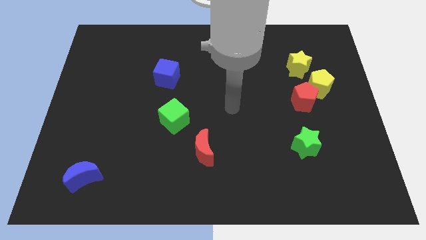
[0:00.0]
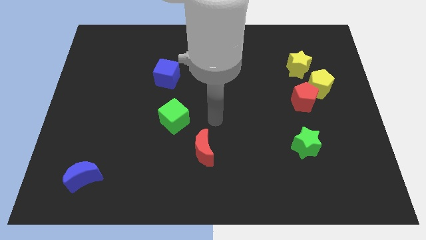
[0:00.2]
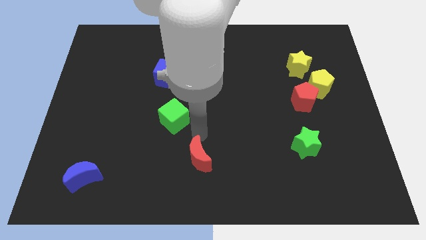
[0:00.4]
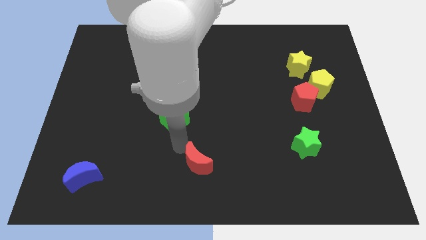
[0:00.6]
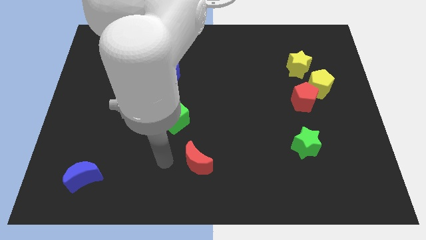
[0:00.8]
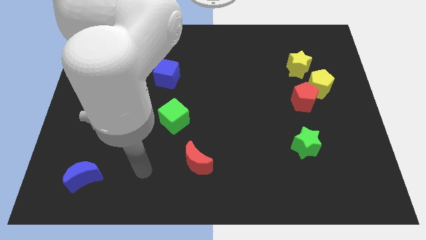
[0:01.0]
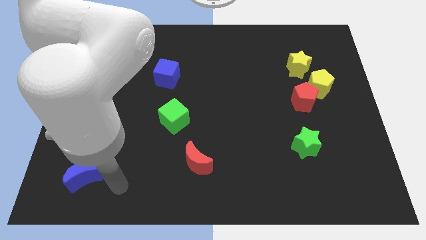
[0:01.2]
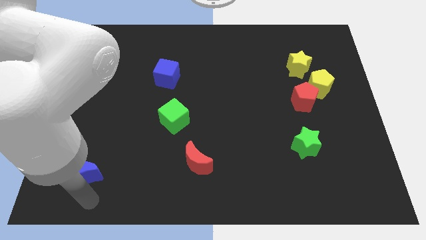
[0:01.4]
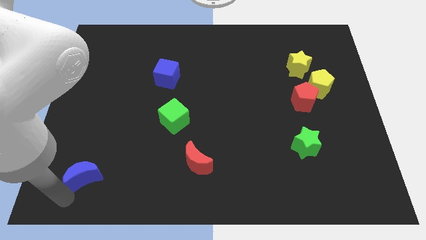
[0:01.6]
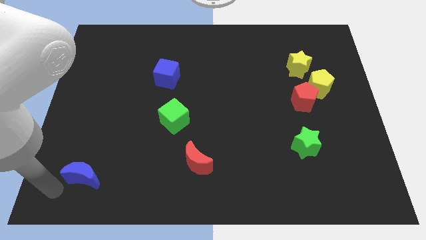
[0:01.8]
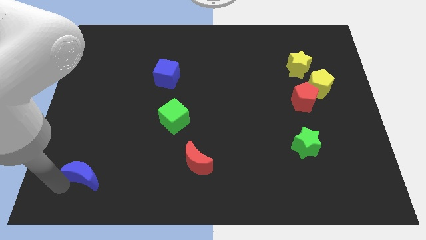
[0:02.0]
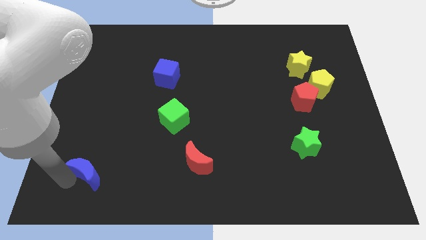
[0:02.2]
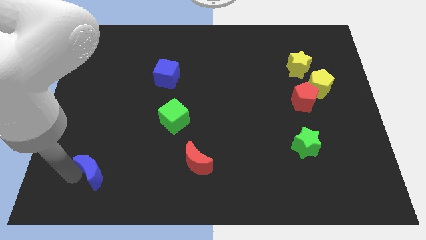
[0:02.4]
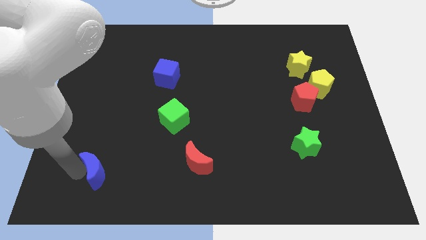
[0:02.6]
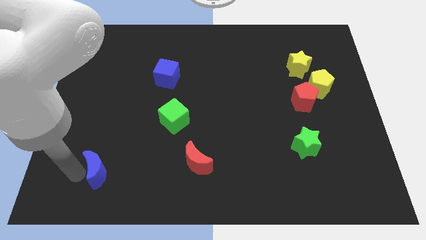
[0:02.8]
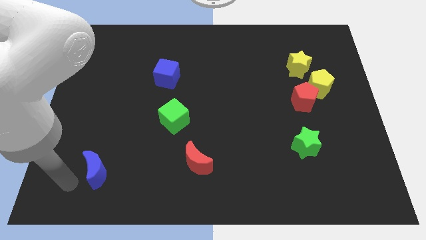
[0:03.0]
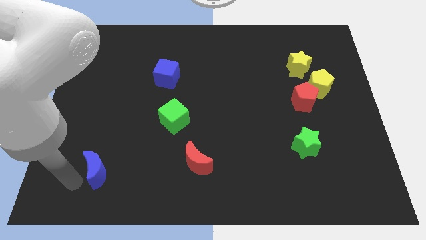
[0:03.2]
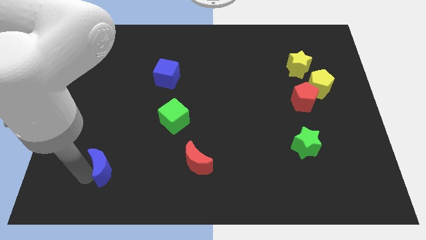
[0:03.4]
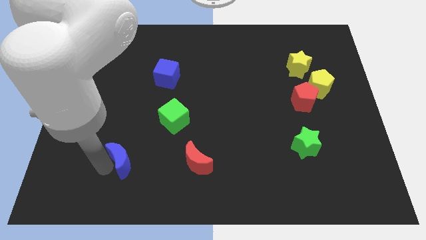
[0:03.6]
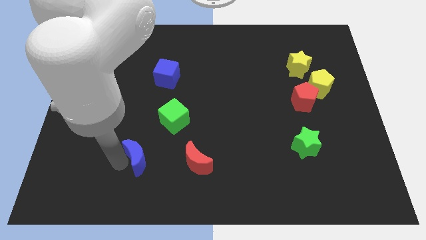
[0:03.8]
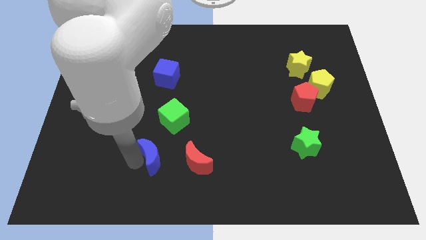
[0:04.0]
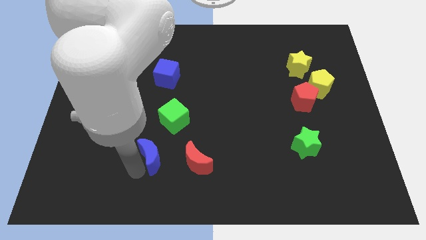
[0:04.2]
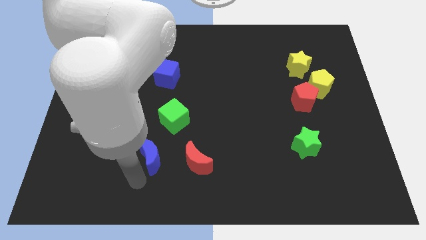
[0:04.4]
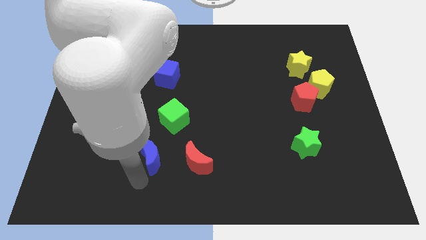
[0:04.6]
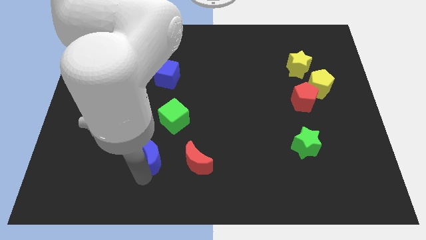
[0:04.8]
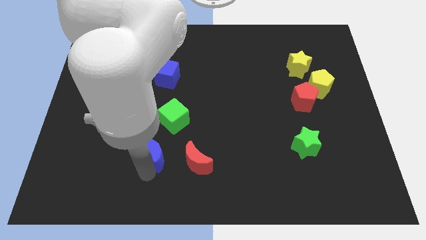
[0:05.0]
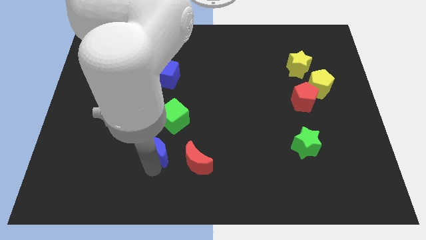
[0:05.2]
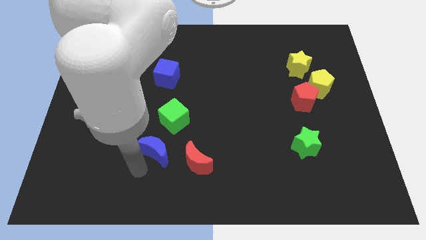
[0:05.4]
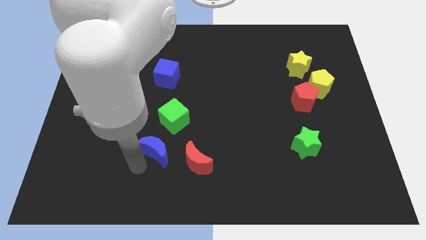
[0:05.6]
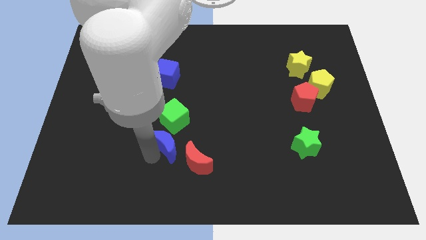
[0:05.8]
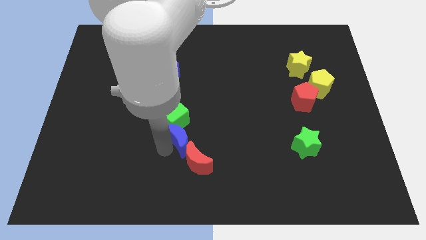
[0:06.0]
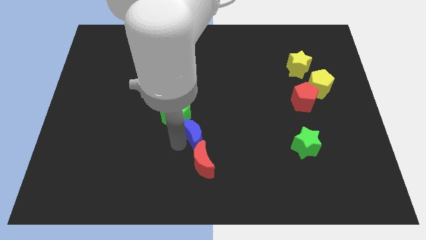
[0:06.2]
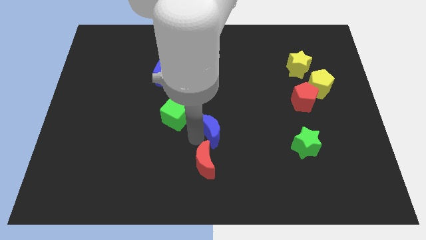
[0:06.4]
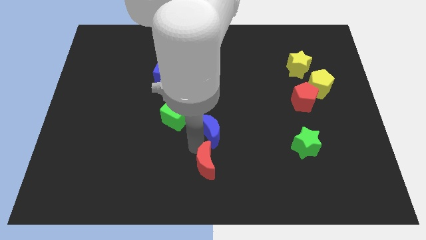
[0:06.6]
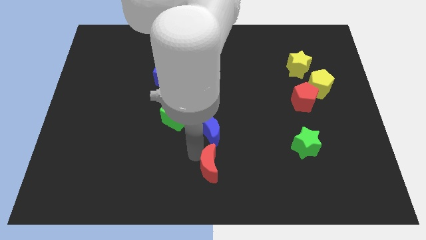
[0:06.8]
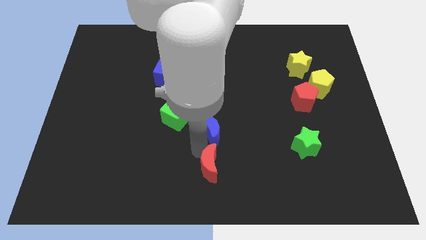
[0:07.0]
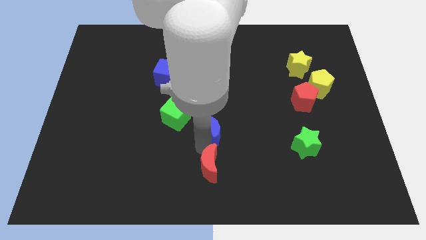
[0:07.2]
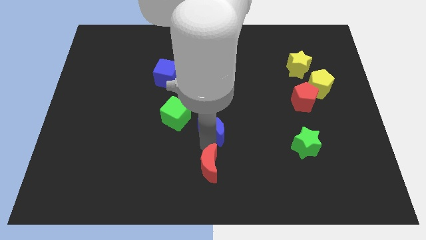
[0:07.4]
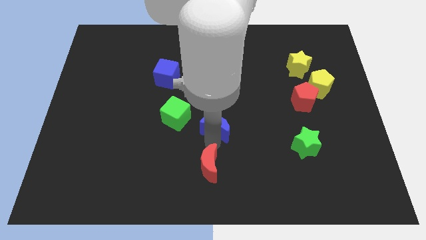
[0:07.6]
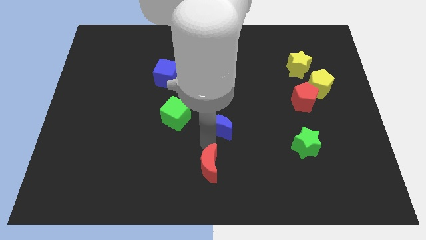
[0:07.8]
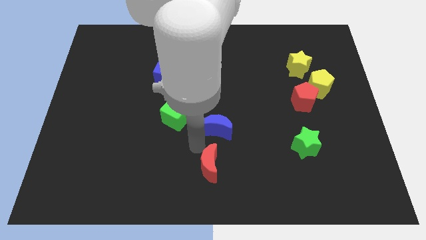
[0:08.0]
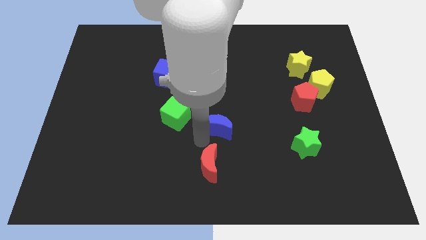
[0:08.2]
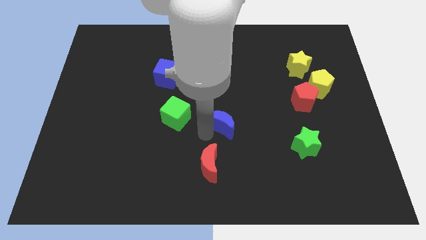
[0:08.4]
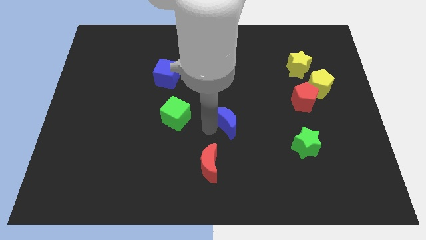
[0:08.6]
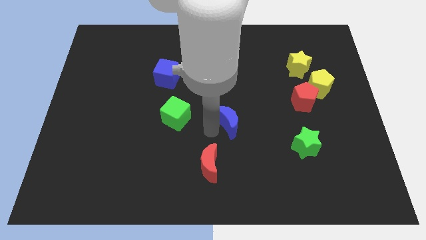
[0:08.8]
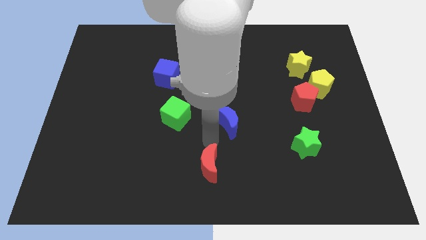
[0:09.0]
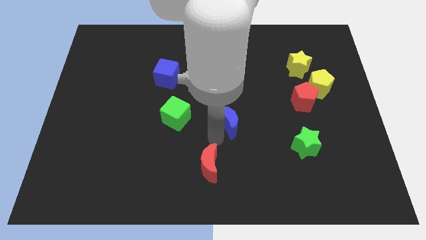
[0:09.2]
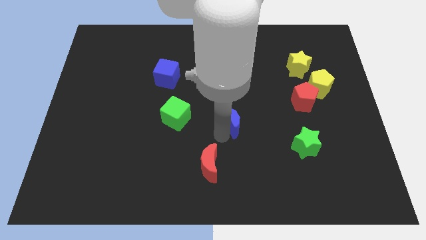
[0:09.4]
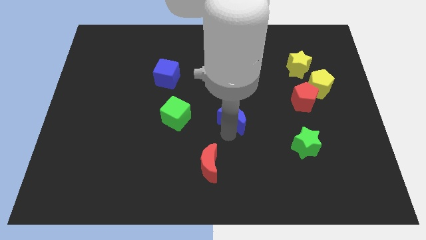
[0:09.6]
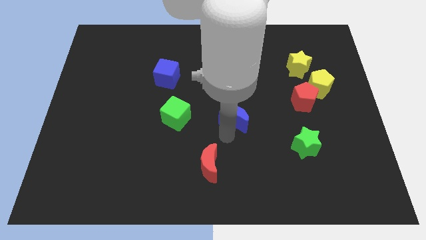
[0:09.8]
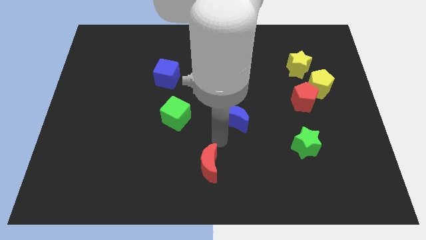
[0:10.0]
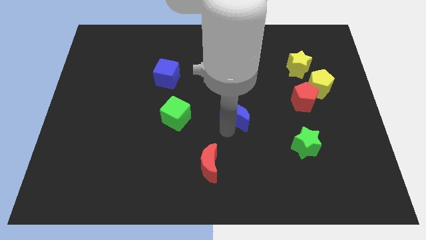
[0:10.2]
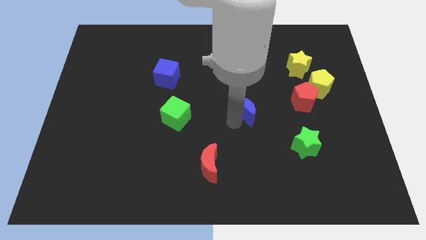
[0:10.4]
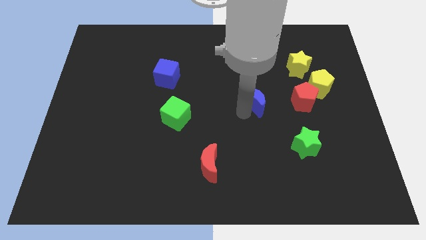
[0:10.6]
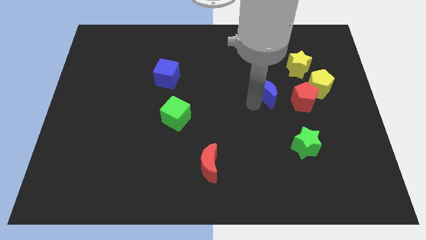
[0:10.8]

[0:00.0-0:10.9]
push the blue moon to the bottom left side of the yellow star

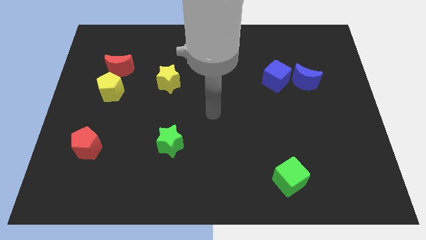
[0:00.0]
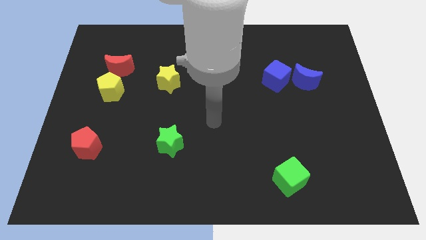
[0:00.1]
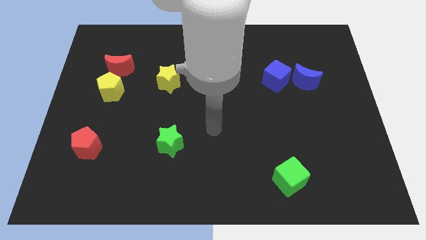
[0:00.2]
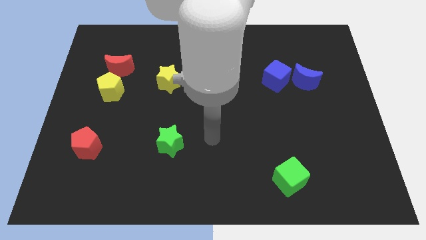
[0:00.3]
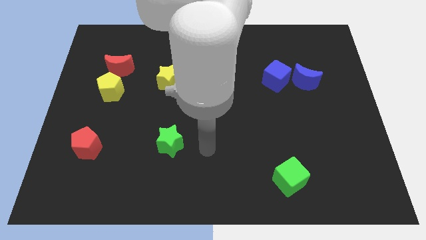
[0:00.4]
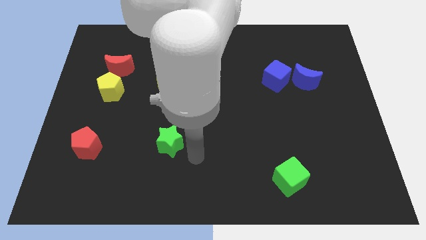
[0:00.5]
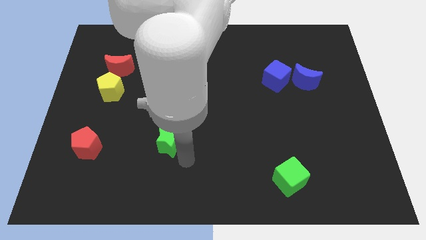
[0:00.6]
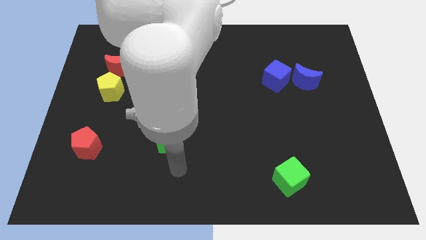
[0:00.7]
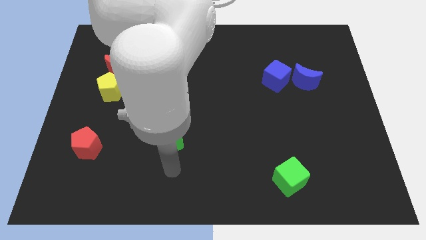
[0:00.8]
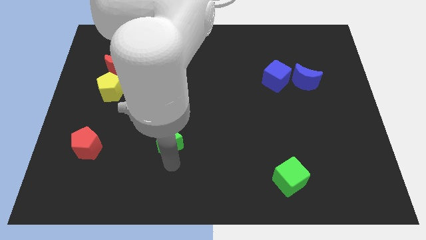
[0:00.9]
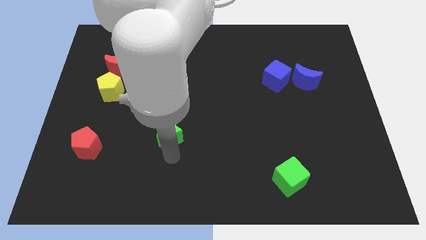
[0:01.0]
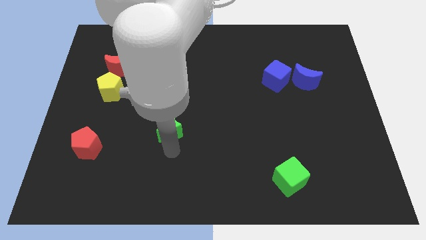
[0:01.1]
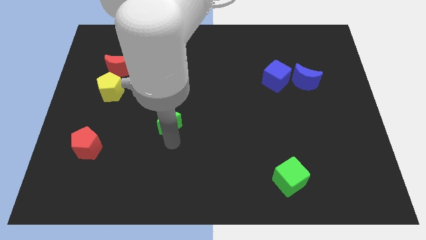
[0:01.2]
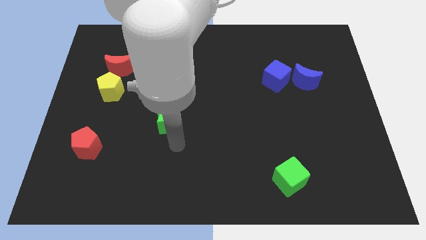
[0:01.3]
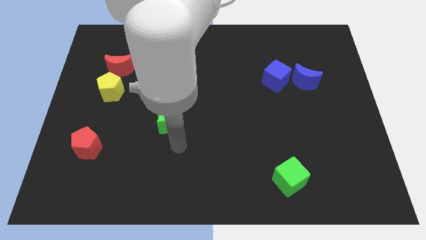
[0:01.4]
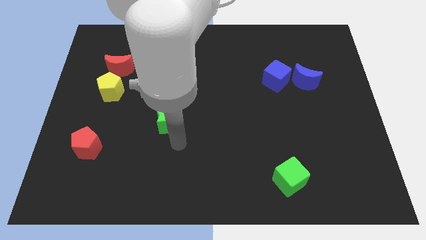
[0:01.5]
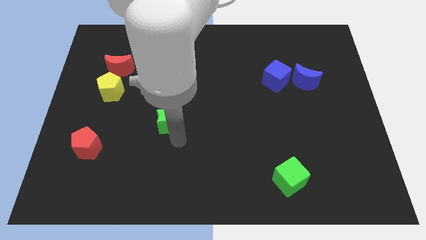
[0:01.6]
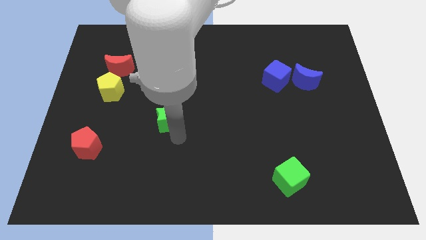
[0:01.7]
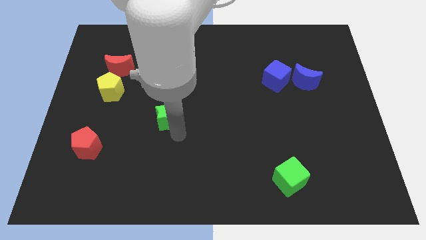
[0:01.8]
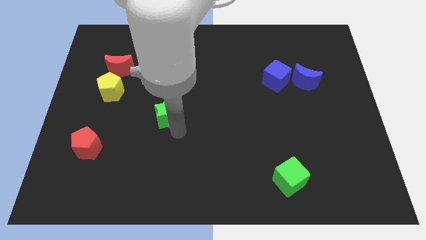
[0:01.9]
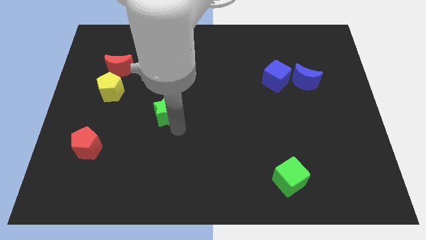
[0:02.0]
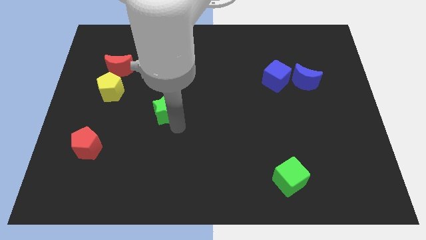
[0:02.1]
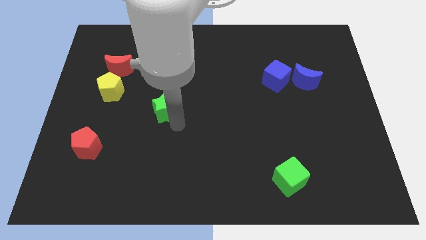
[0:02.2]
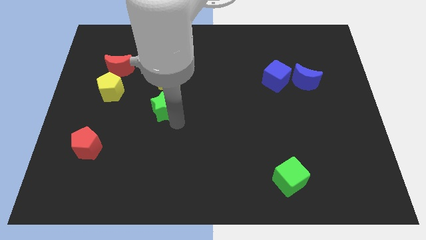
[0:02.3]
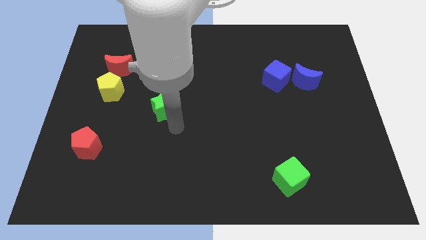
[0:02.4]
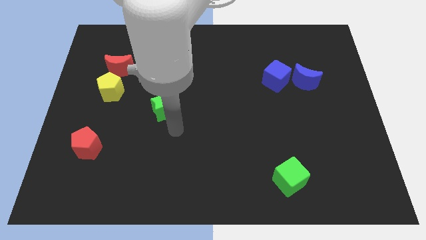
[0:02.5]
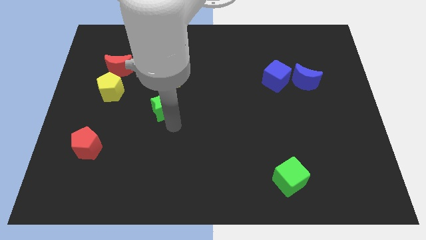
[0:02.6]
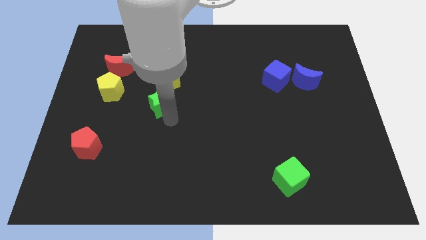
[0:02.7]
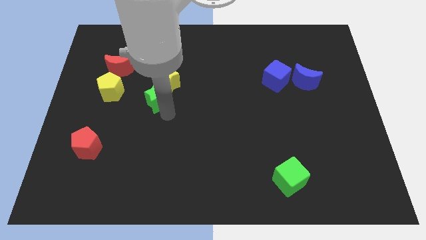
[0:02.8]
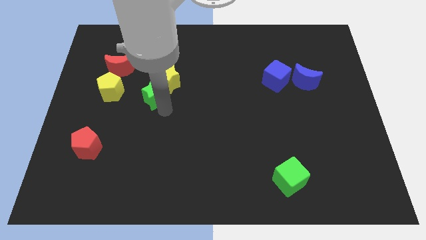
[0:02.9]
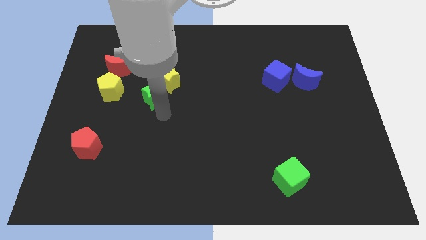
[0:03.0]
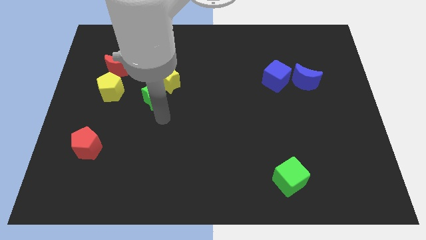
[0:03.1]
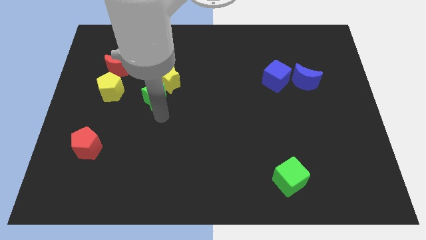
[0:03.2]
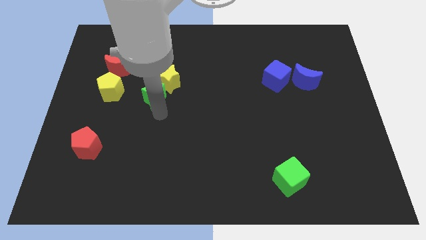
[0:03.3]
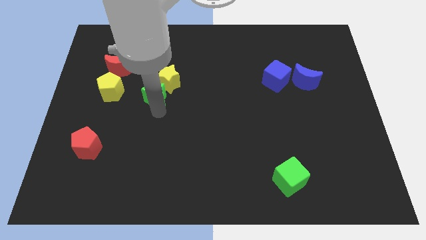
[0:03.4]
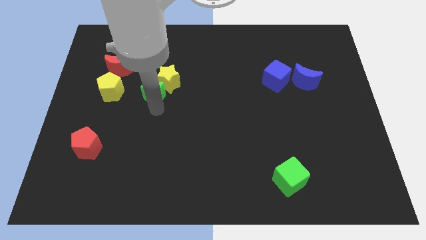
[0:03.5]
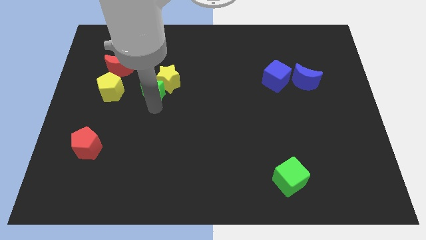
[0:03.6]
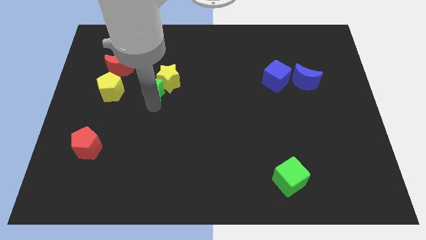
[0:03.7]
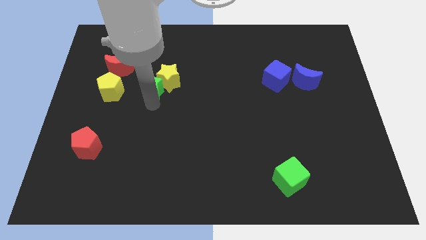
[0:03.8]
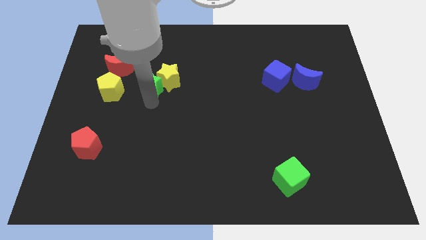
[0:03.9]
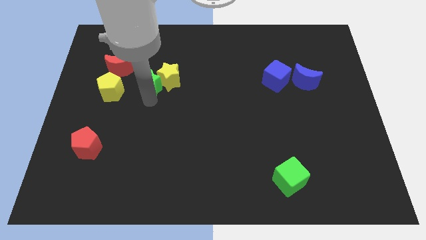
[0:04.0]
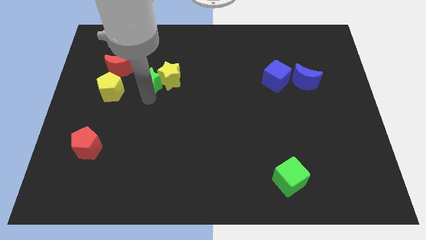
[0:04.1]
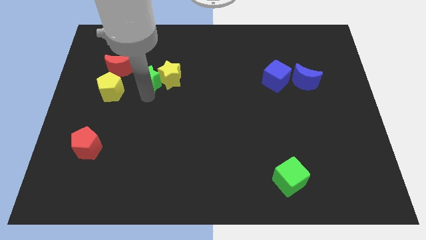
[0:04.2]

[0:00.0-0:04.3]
slide the green star to the right side of the red moon
